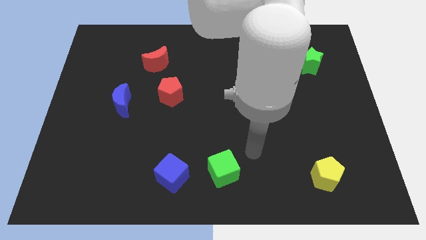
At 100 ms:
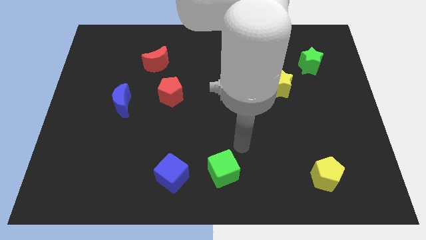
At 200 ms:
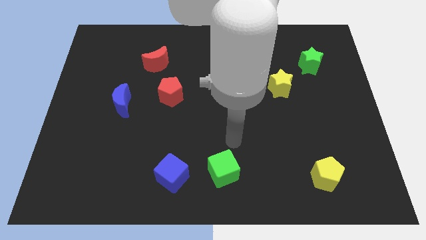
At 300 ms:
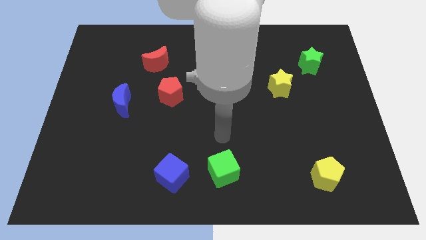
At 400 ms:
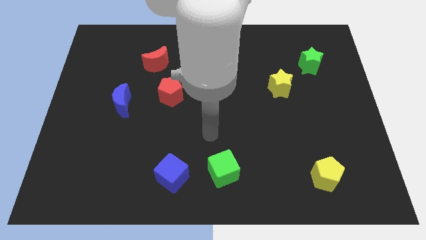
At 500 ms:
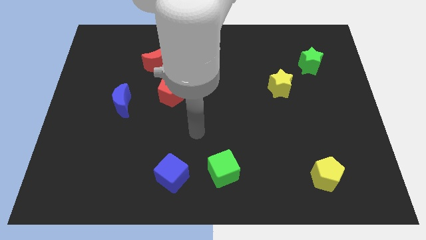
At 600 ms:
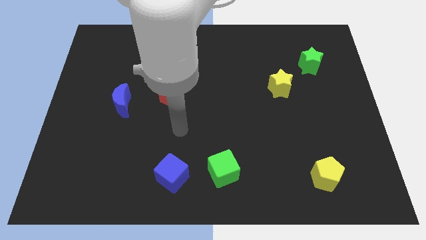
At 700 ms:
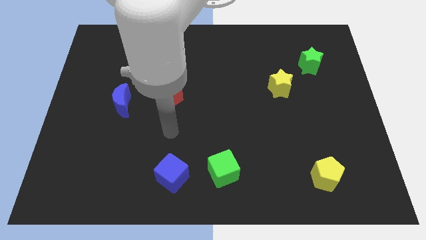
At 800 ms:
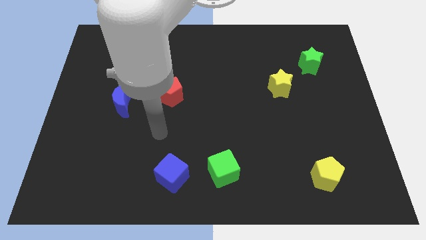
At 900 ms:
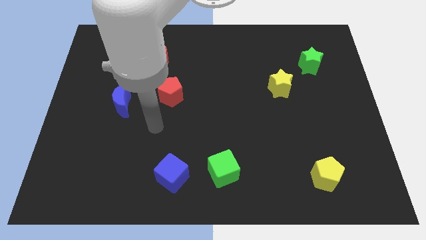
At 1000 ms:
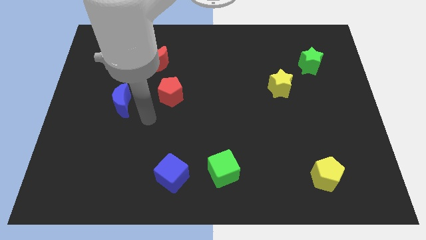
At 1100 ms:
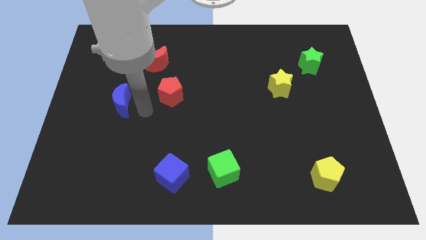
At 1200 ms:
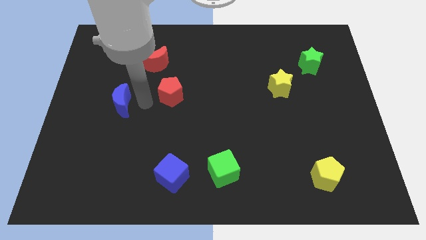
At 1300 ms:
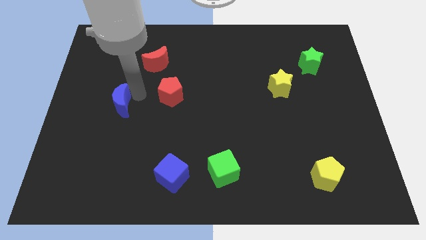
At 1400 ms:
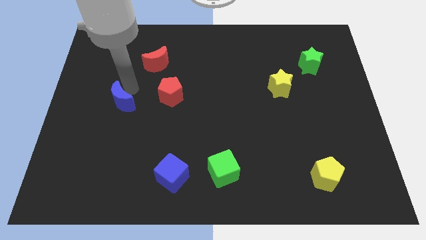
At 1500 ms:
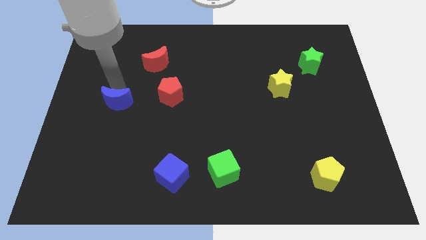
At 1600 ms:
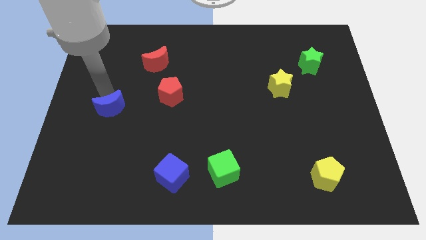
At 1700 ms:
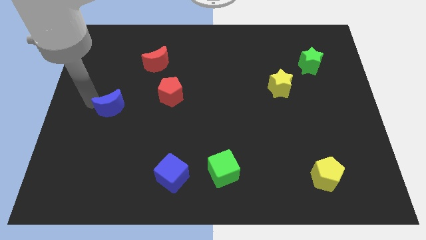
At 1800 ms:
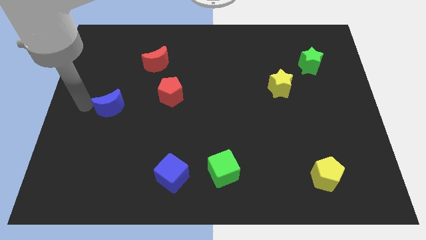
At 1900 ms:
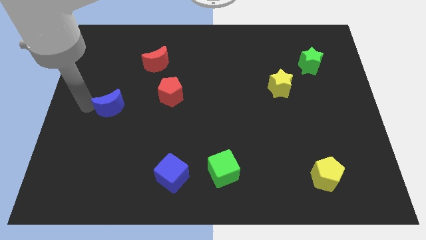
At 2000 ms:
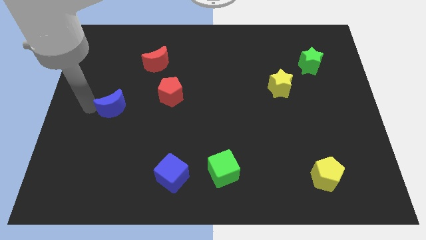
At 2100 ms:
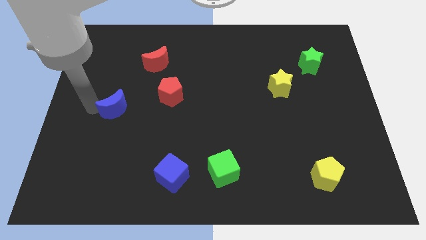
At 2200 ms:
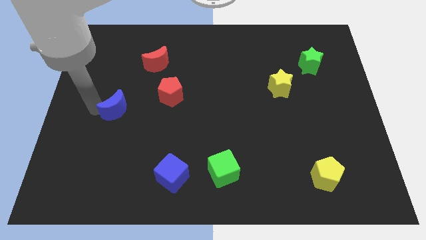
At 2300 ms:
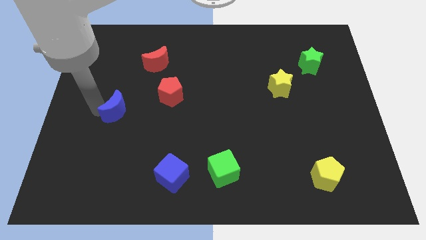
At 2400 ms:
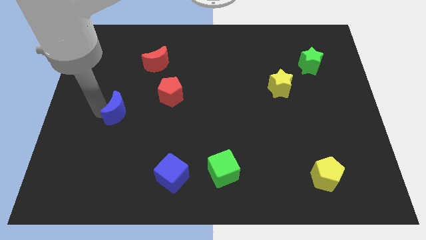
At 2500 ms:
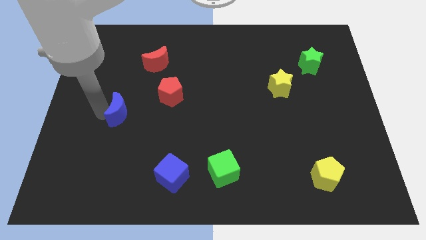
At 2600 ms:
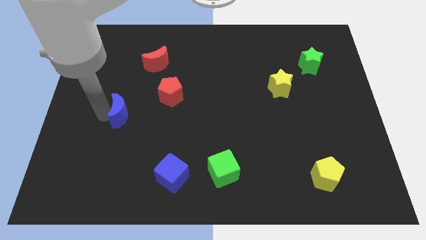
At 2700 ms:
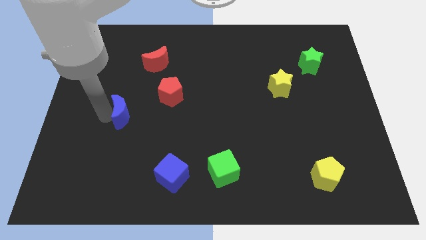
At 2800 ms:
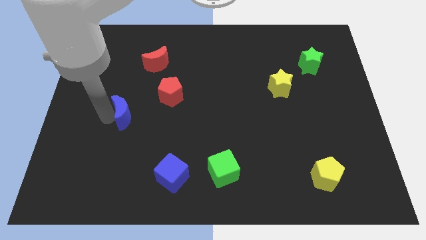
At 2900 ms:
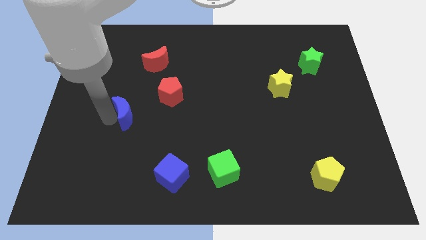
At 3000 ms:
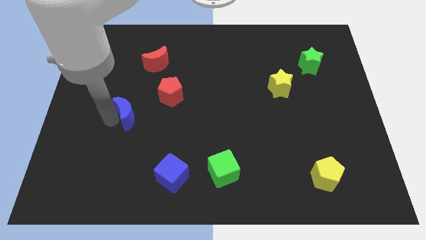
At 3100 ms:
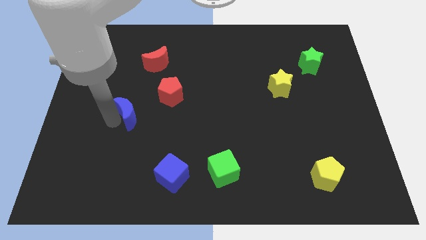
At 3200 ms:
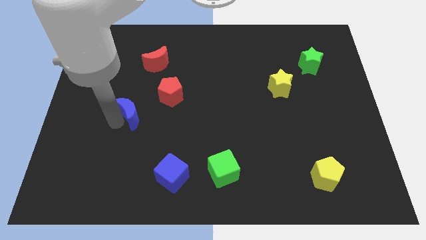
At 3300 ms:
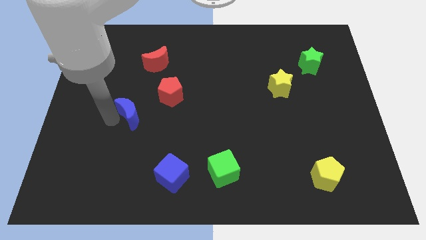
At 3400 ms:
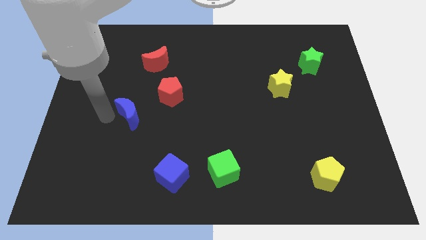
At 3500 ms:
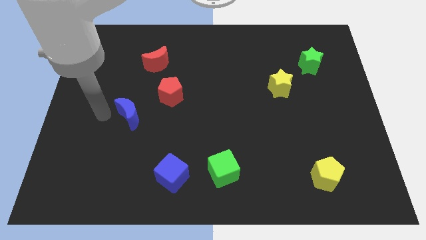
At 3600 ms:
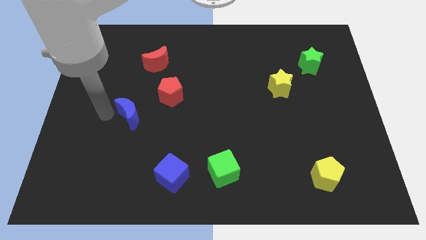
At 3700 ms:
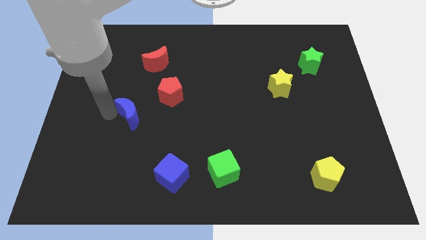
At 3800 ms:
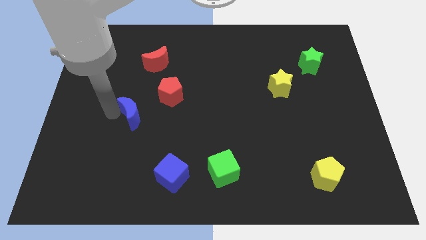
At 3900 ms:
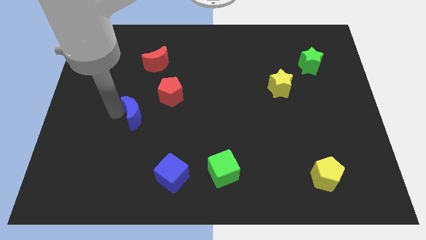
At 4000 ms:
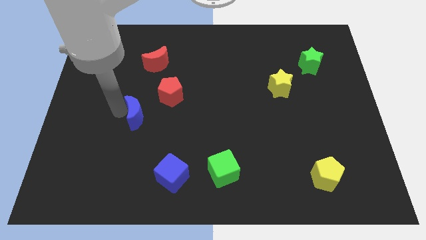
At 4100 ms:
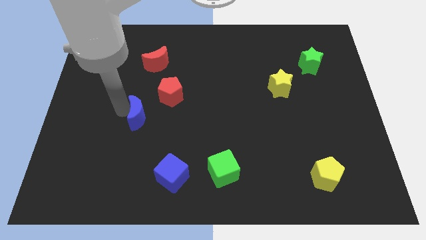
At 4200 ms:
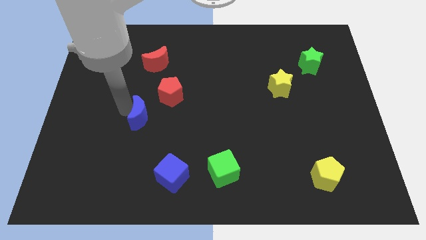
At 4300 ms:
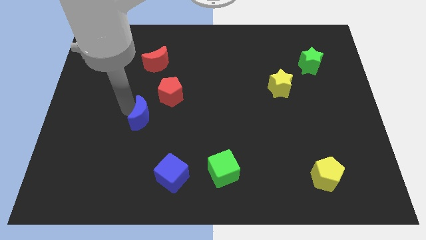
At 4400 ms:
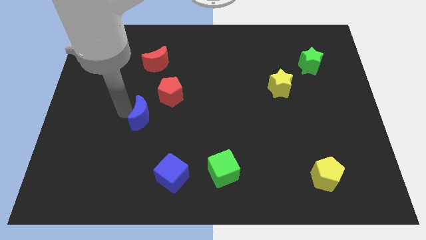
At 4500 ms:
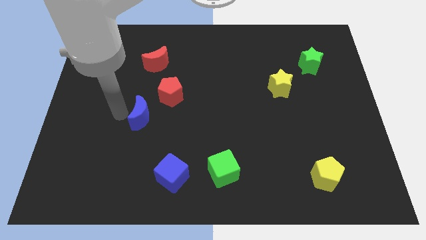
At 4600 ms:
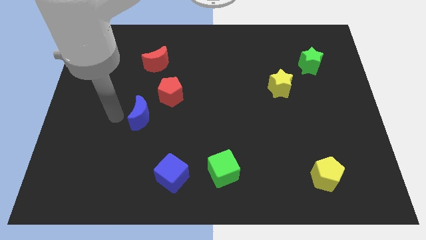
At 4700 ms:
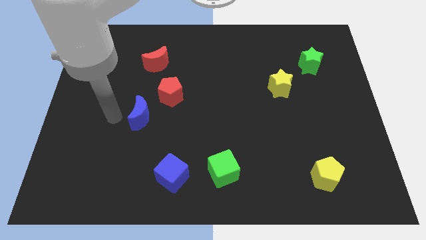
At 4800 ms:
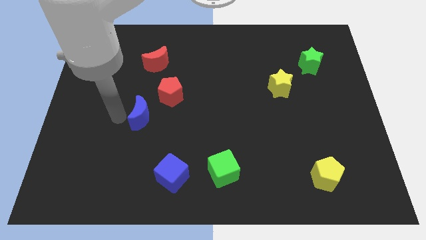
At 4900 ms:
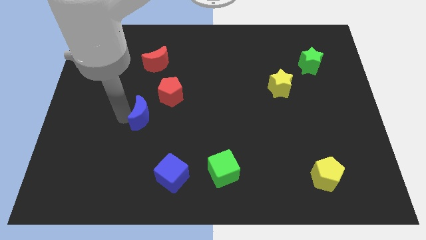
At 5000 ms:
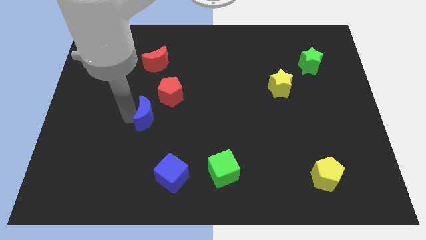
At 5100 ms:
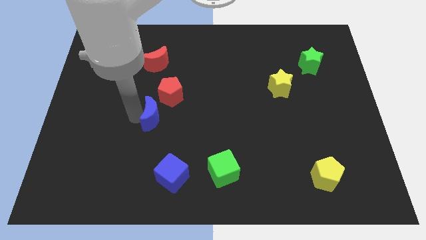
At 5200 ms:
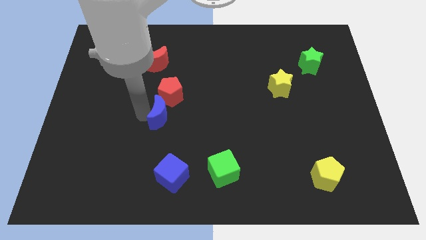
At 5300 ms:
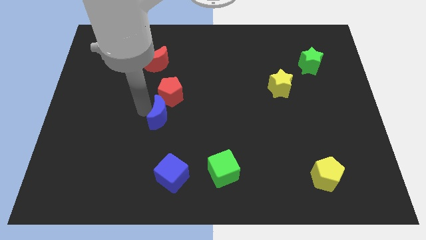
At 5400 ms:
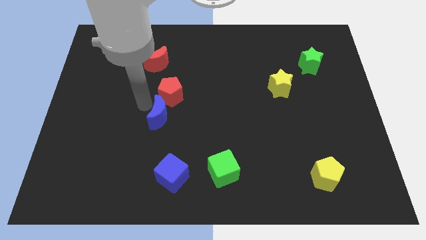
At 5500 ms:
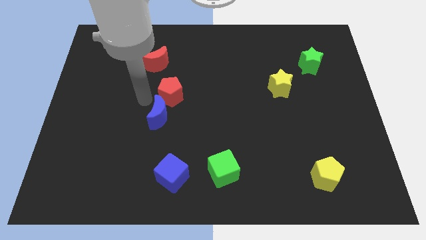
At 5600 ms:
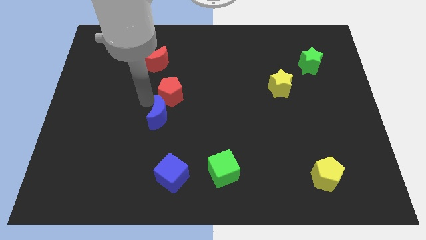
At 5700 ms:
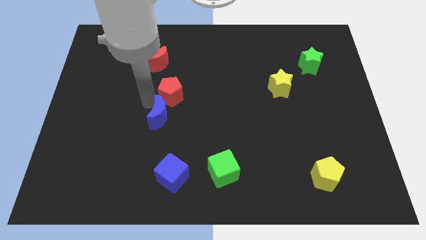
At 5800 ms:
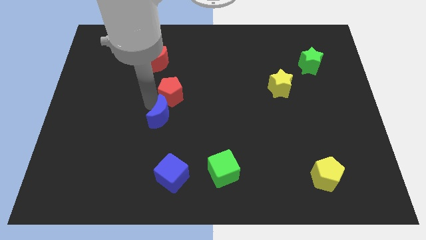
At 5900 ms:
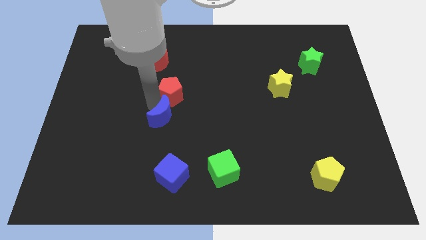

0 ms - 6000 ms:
push the blue moon to the top of the blue cube
